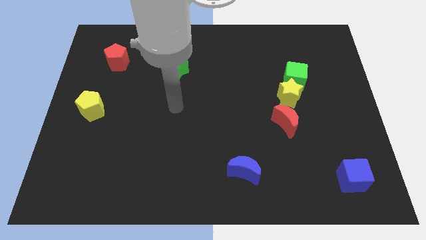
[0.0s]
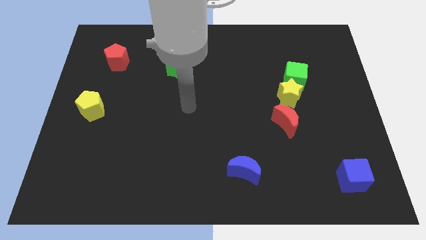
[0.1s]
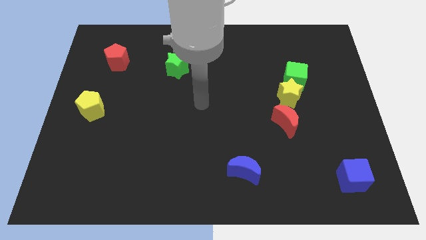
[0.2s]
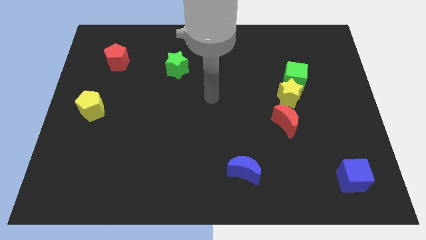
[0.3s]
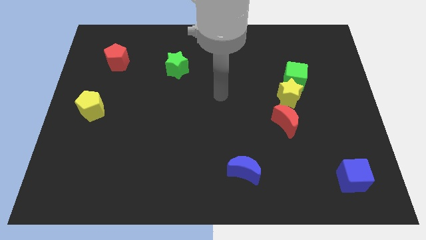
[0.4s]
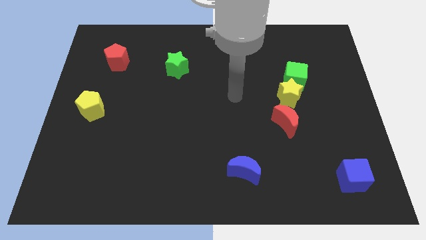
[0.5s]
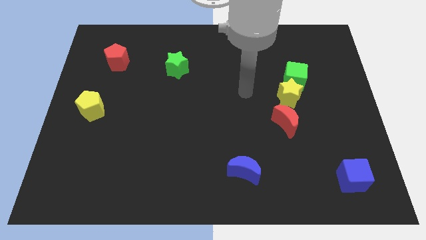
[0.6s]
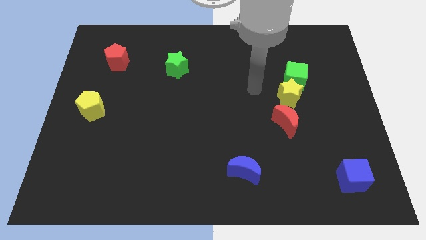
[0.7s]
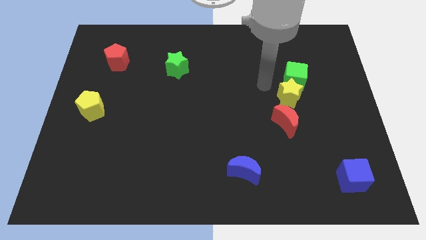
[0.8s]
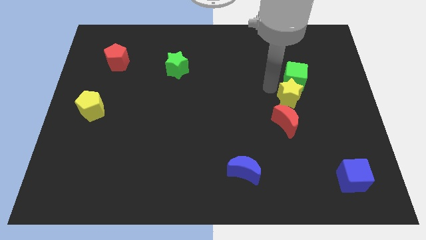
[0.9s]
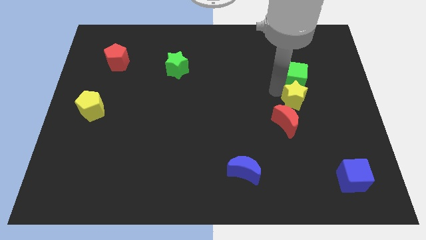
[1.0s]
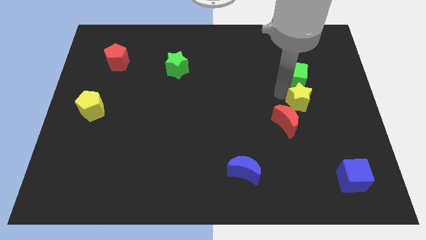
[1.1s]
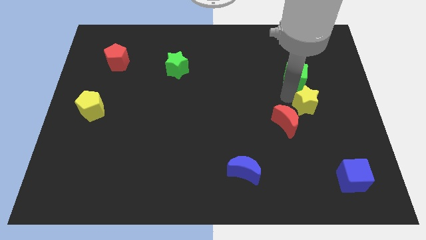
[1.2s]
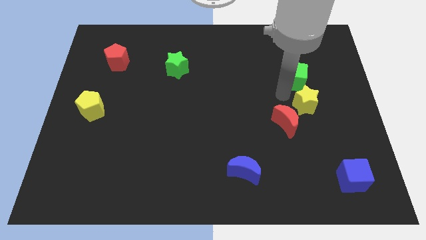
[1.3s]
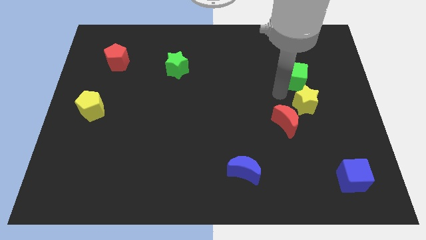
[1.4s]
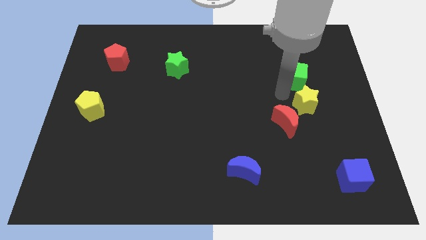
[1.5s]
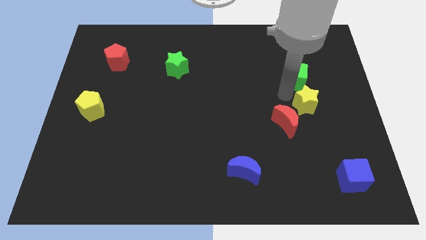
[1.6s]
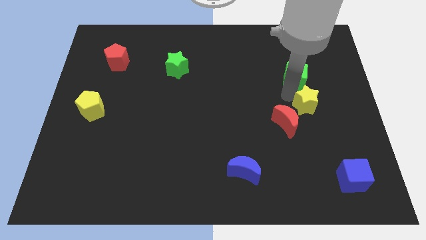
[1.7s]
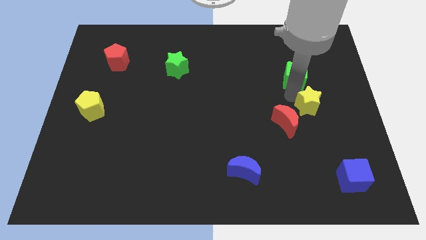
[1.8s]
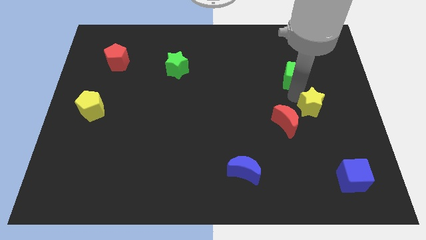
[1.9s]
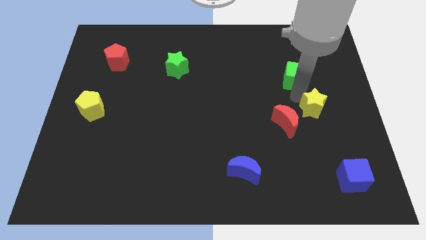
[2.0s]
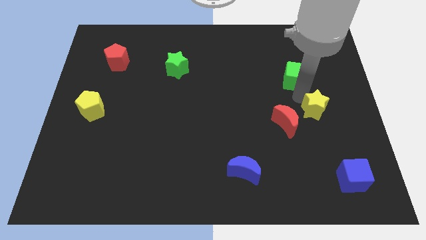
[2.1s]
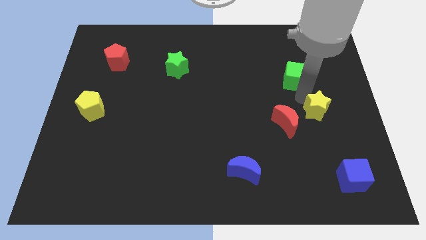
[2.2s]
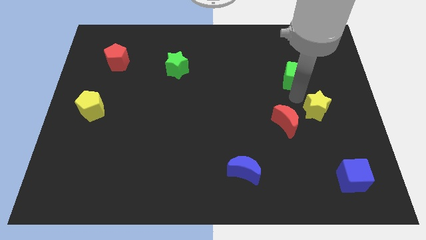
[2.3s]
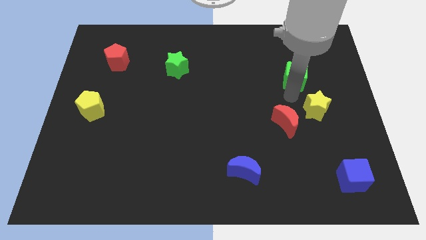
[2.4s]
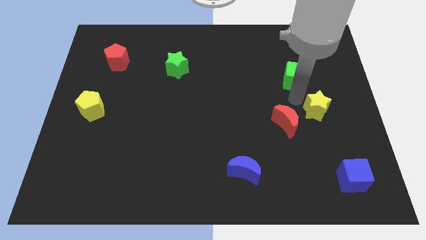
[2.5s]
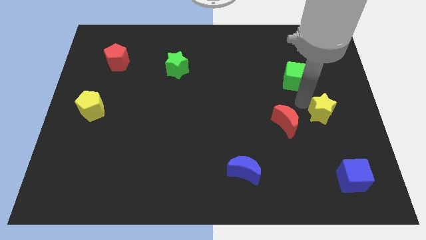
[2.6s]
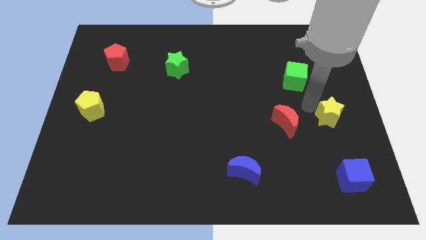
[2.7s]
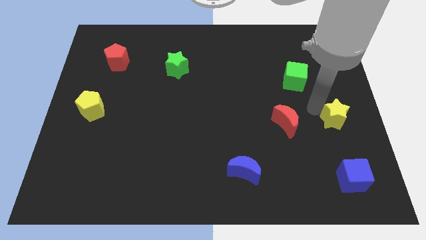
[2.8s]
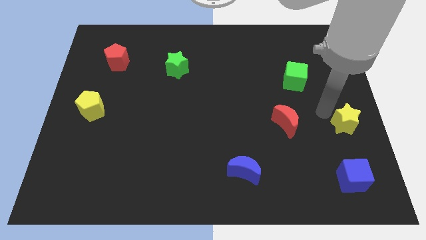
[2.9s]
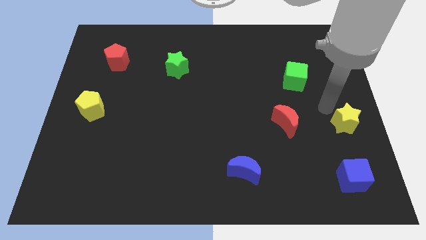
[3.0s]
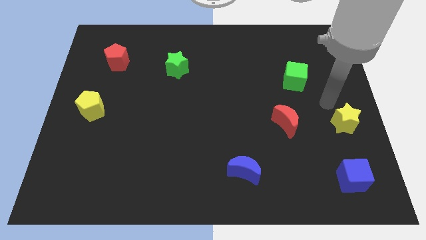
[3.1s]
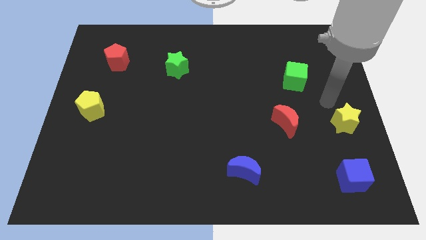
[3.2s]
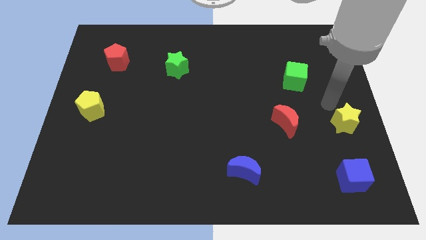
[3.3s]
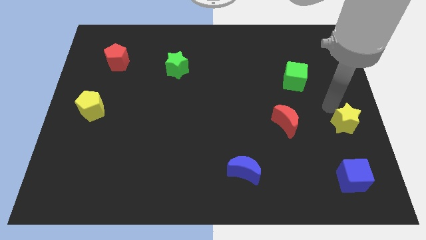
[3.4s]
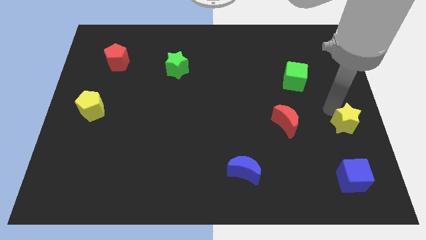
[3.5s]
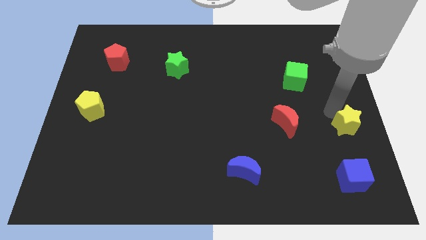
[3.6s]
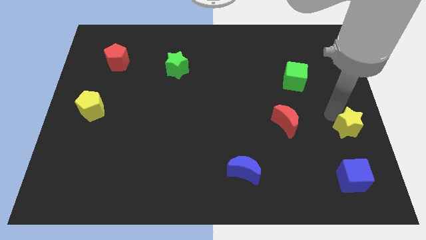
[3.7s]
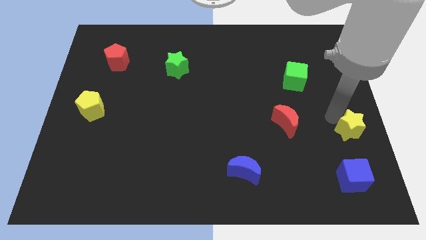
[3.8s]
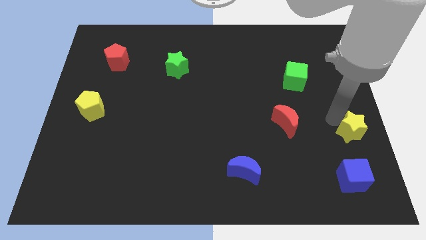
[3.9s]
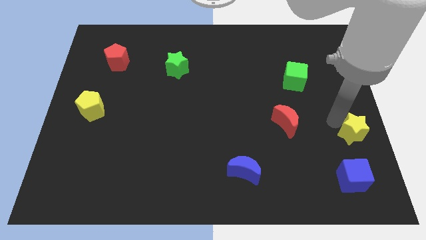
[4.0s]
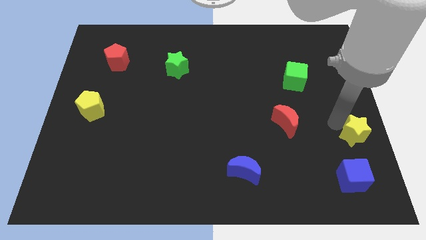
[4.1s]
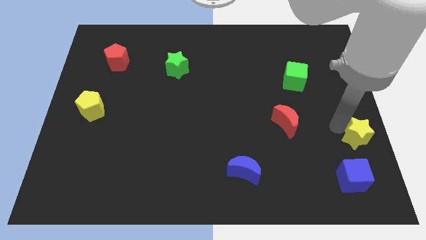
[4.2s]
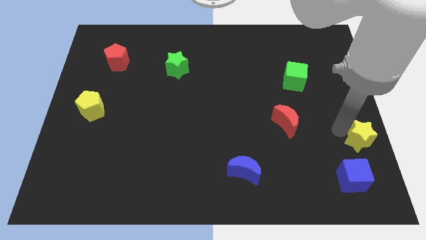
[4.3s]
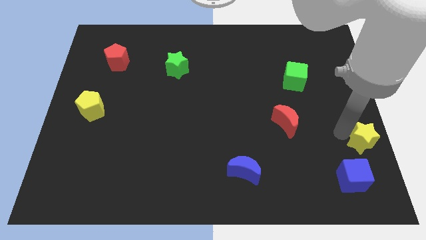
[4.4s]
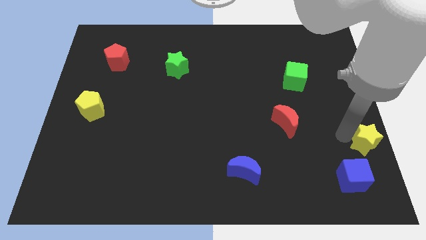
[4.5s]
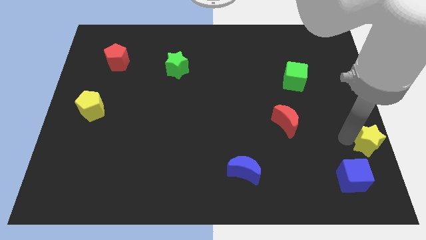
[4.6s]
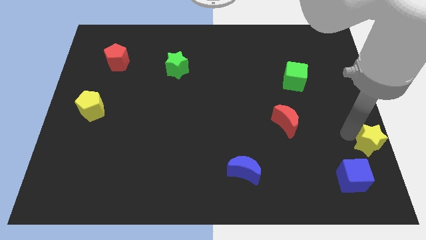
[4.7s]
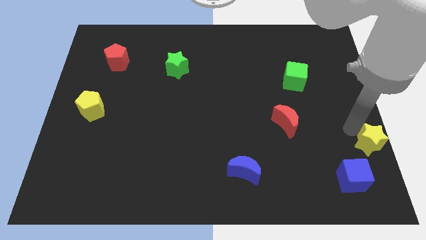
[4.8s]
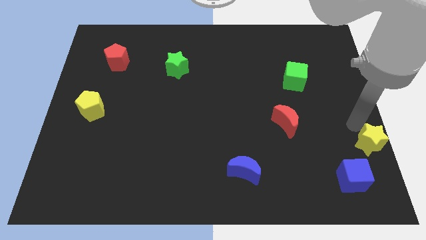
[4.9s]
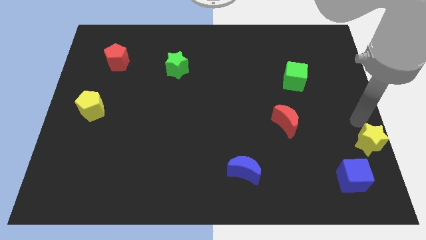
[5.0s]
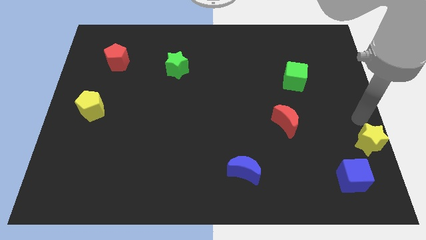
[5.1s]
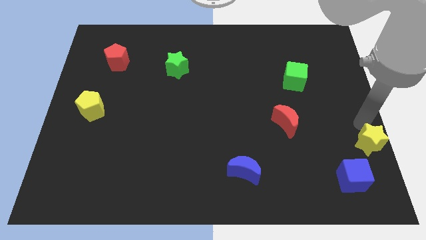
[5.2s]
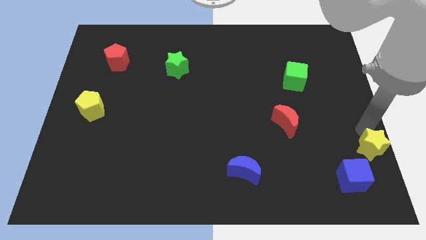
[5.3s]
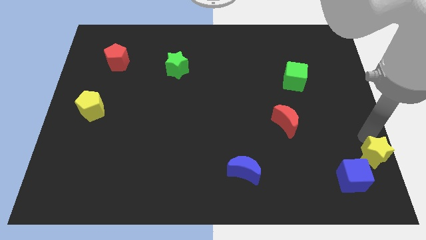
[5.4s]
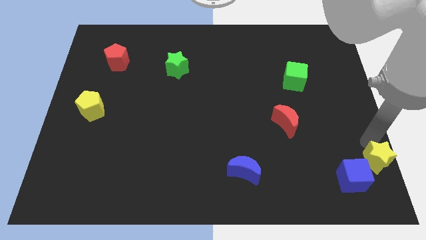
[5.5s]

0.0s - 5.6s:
put the yellow star to the bottom right of the board

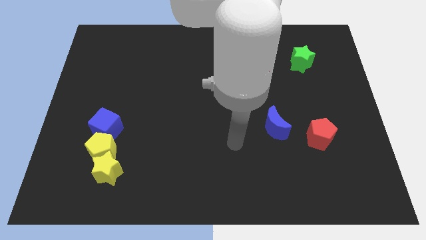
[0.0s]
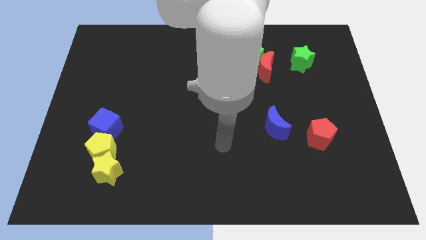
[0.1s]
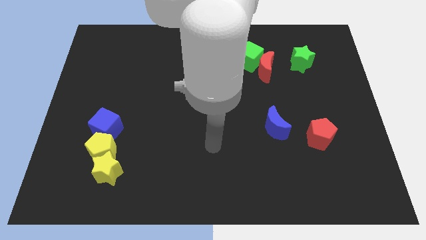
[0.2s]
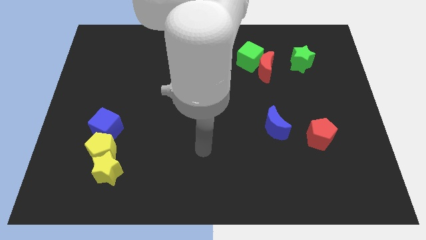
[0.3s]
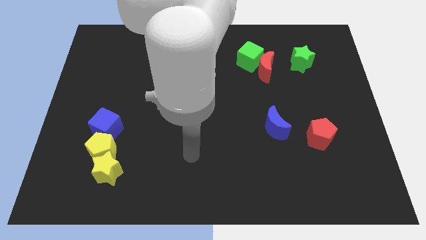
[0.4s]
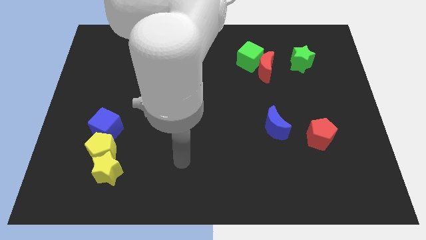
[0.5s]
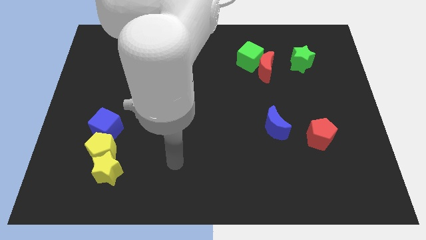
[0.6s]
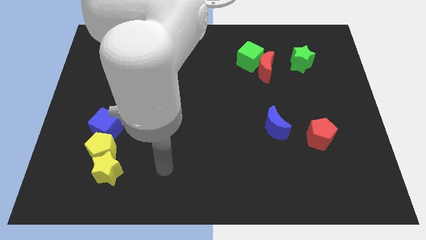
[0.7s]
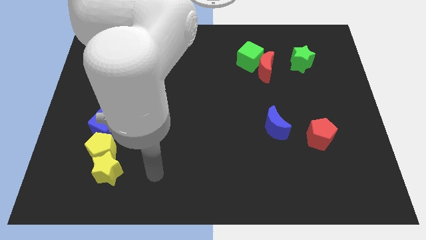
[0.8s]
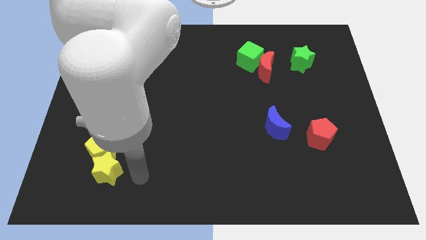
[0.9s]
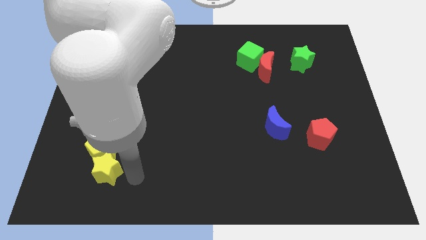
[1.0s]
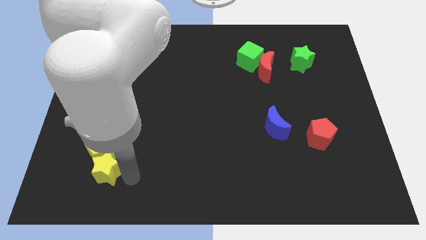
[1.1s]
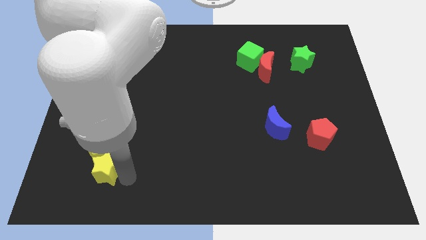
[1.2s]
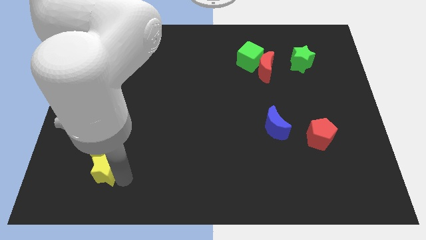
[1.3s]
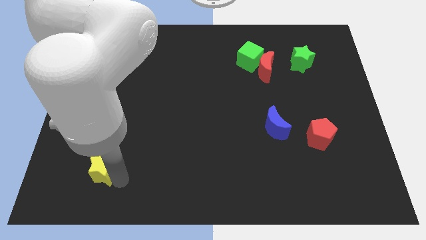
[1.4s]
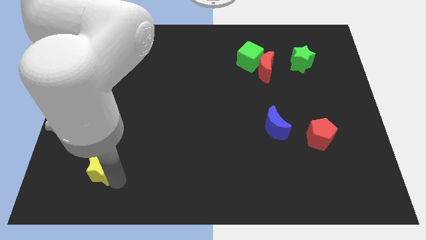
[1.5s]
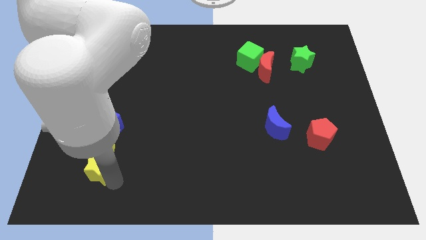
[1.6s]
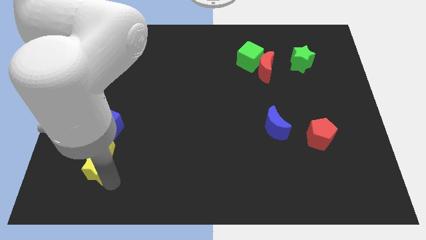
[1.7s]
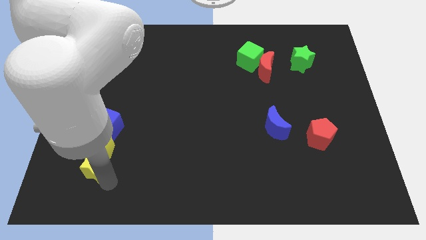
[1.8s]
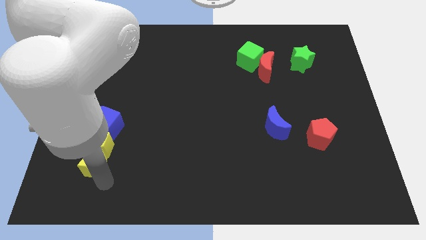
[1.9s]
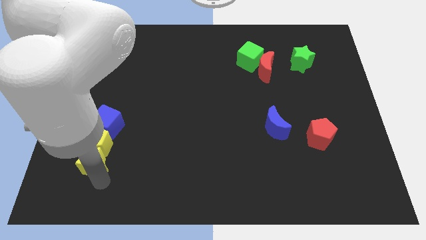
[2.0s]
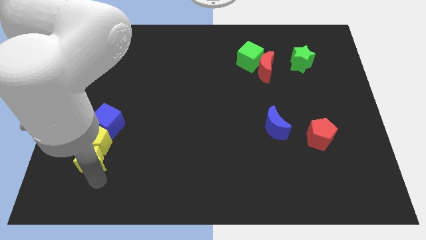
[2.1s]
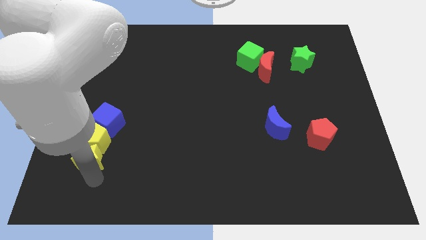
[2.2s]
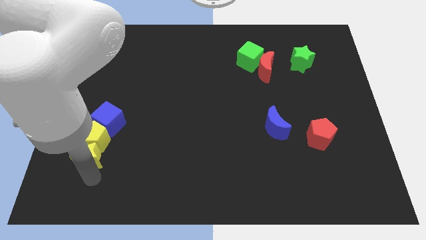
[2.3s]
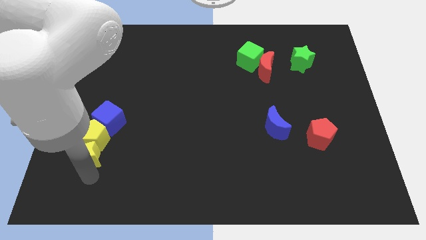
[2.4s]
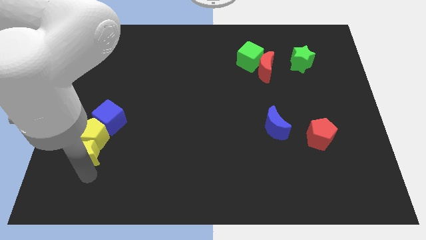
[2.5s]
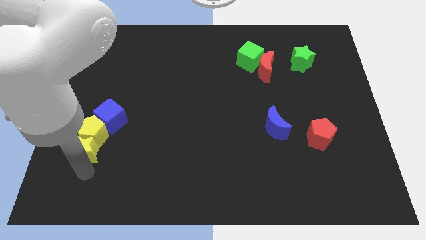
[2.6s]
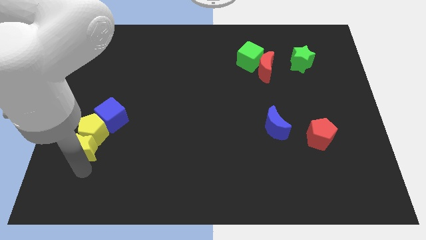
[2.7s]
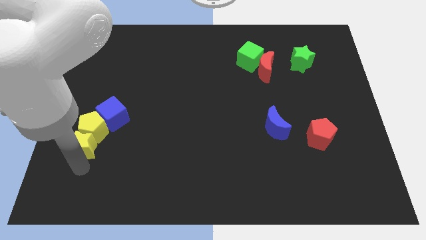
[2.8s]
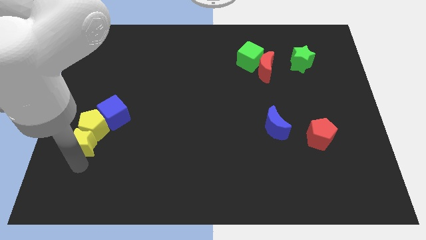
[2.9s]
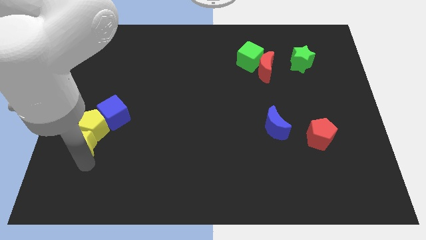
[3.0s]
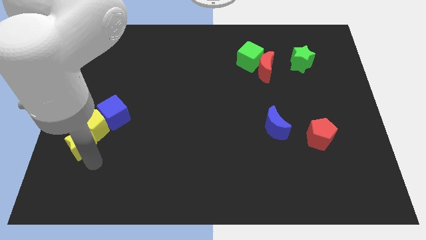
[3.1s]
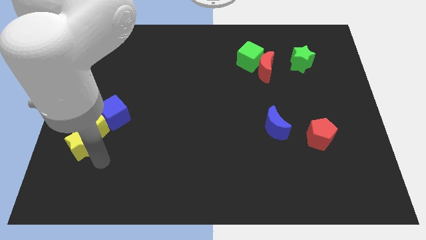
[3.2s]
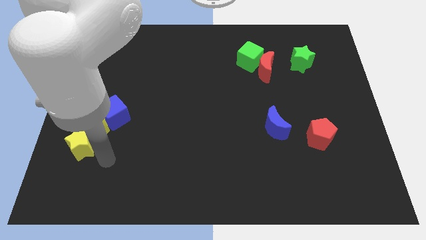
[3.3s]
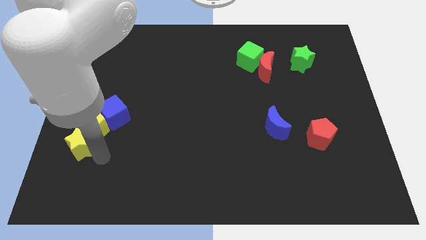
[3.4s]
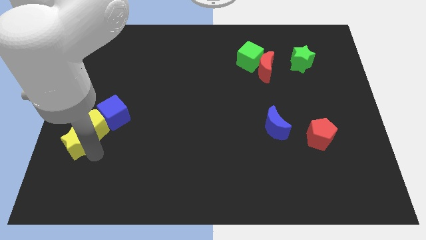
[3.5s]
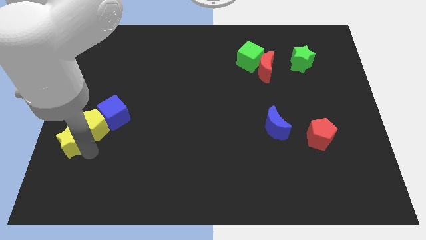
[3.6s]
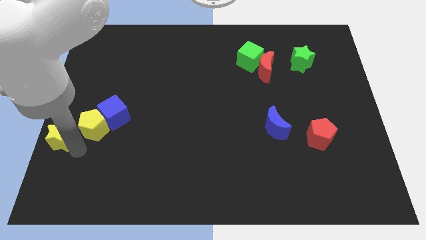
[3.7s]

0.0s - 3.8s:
push the yellow star to the left side of the board
